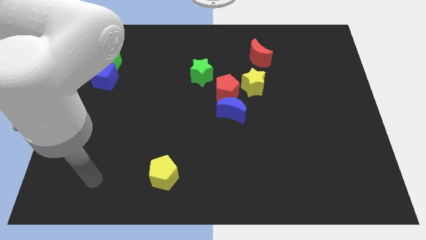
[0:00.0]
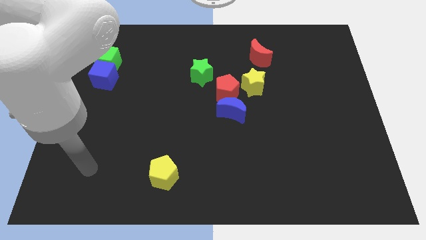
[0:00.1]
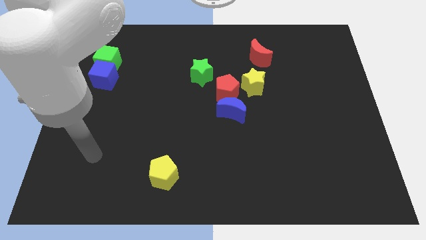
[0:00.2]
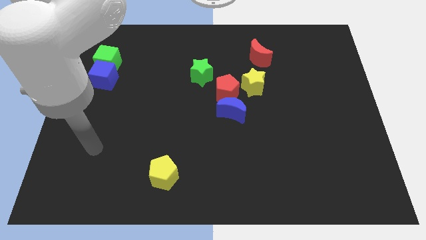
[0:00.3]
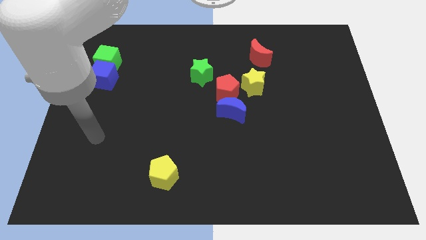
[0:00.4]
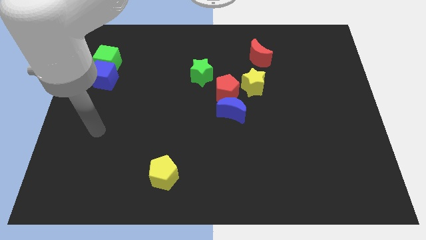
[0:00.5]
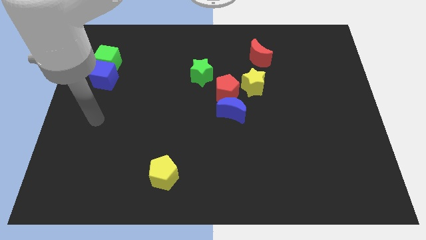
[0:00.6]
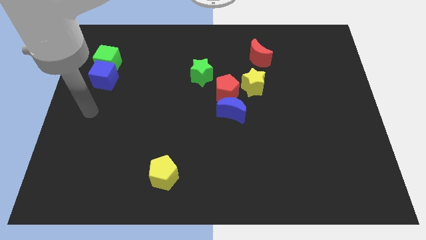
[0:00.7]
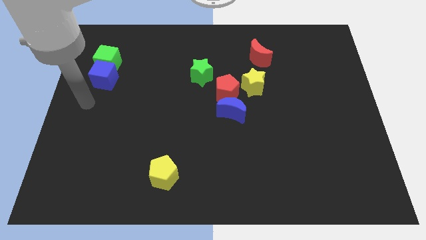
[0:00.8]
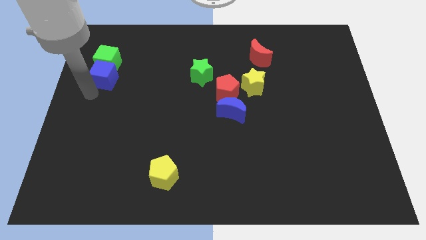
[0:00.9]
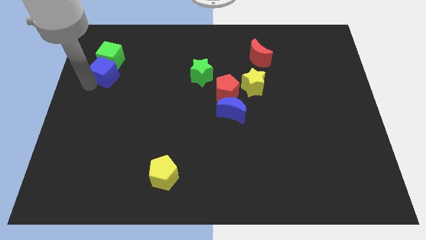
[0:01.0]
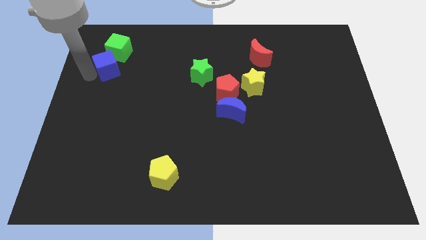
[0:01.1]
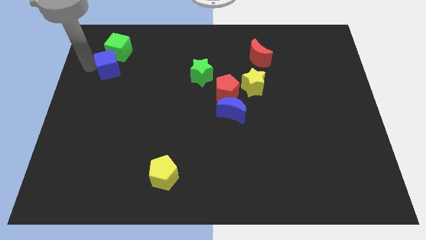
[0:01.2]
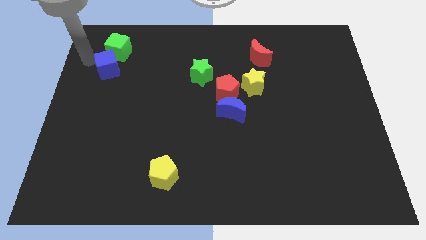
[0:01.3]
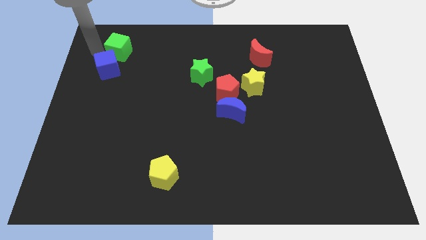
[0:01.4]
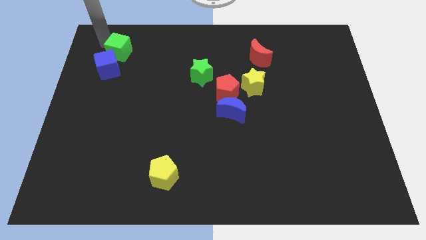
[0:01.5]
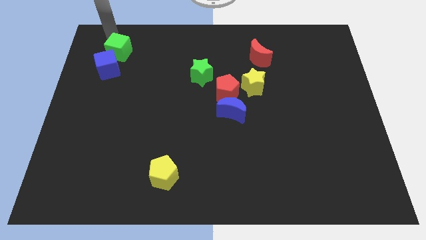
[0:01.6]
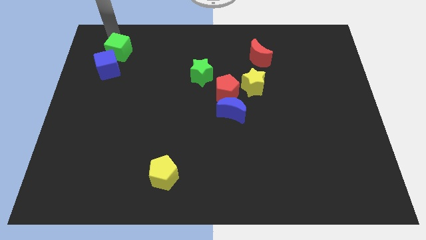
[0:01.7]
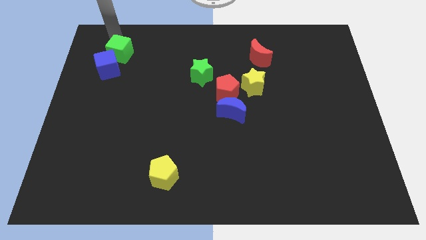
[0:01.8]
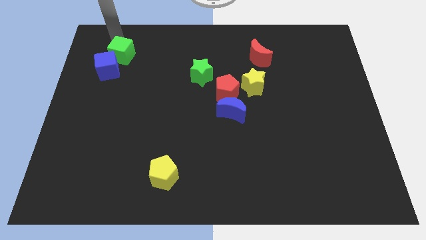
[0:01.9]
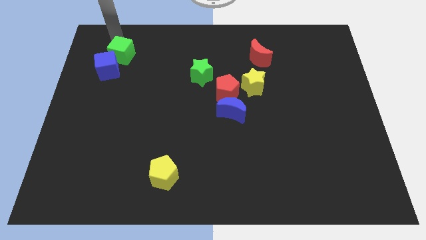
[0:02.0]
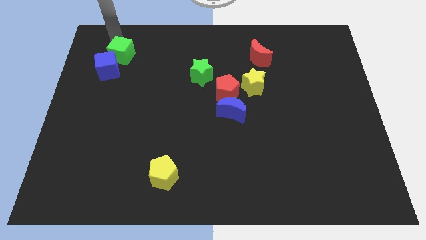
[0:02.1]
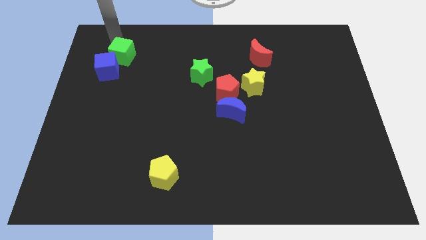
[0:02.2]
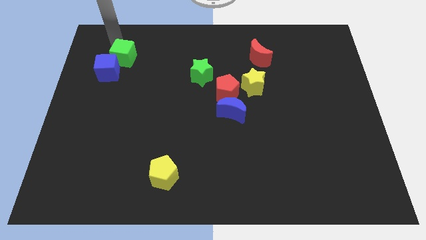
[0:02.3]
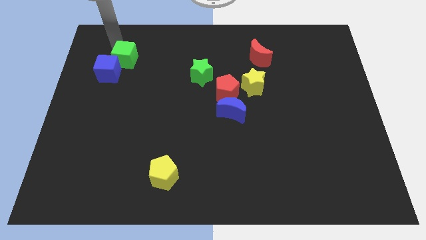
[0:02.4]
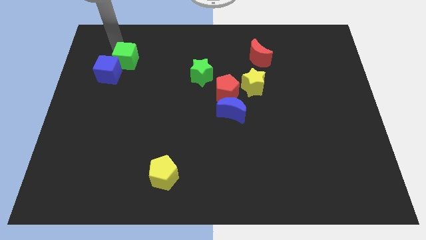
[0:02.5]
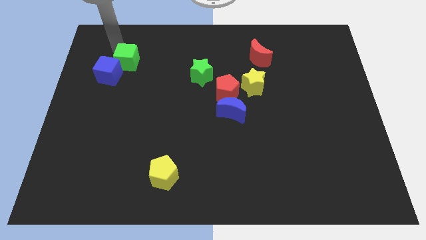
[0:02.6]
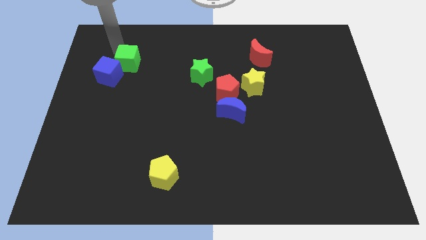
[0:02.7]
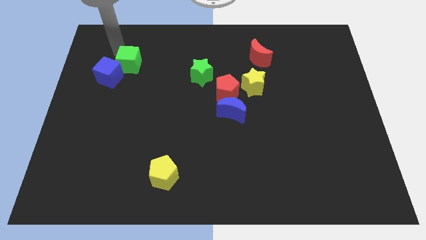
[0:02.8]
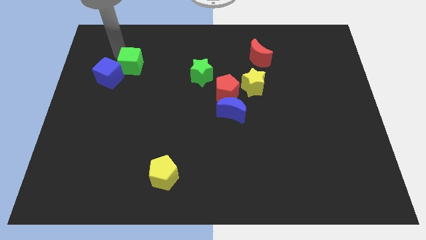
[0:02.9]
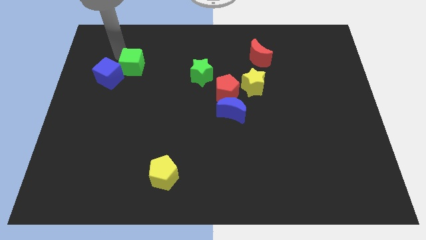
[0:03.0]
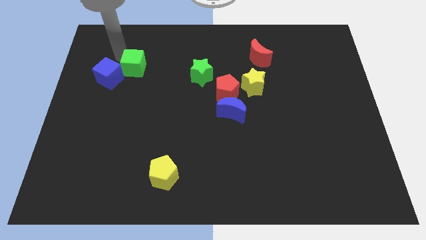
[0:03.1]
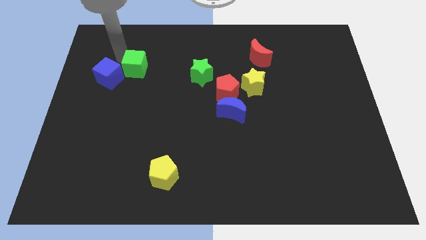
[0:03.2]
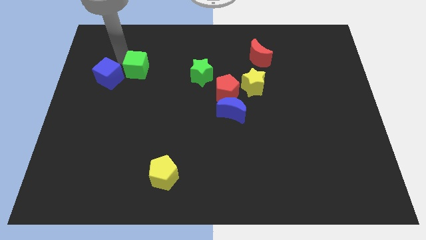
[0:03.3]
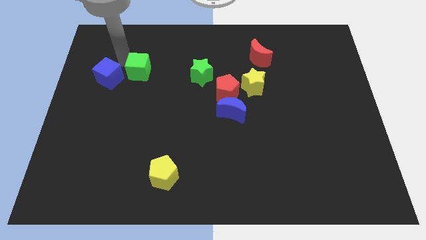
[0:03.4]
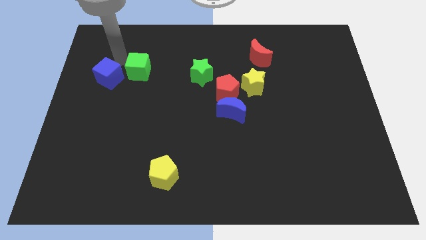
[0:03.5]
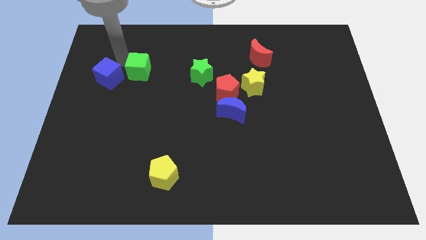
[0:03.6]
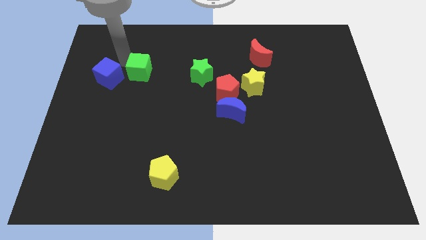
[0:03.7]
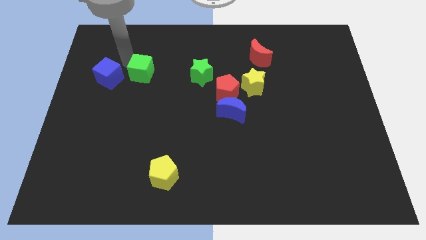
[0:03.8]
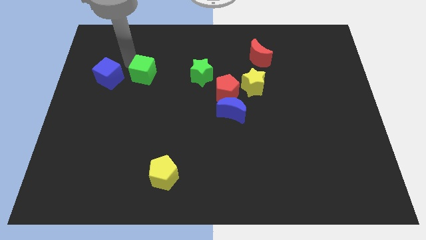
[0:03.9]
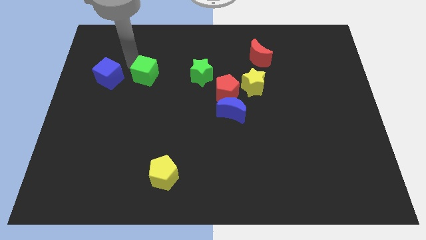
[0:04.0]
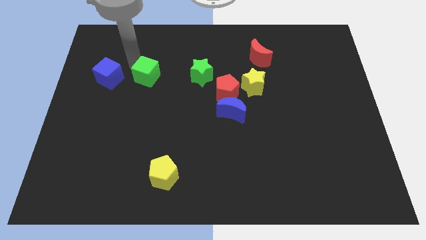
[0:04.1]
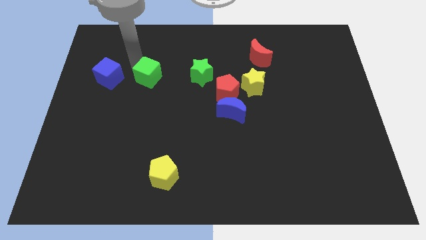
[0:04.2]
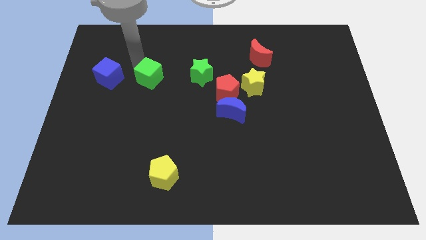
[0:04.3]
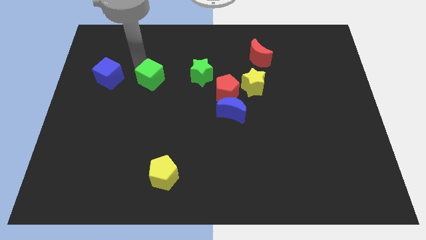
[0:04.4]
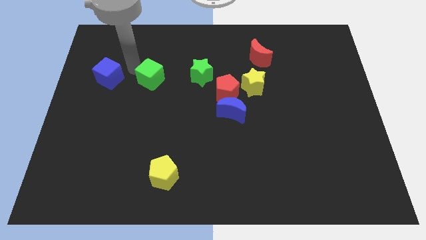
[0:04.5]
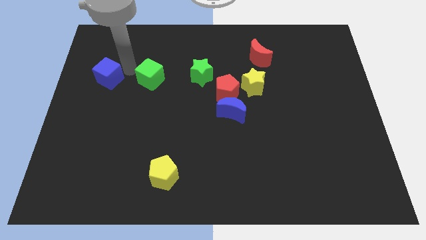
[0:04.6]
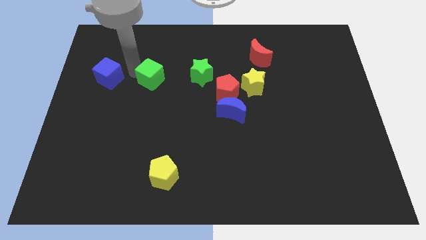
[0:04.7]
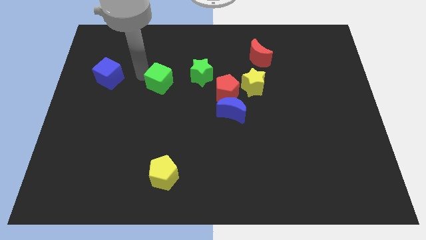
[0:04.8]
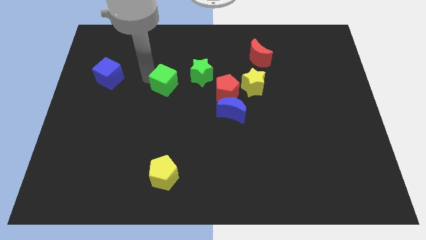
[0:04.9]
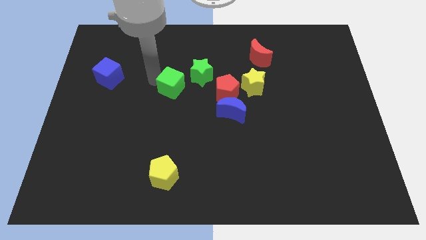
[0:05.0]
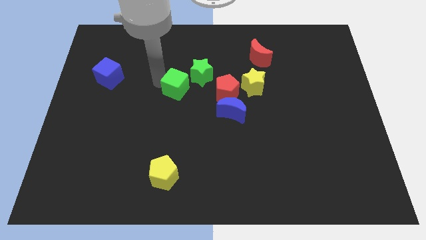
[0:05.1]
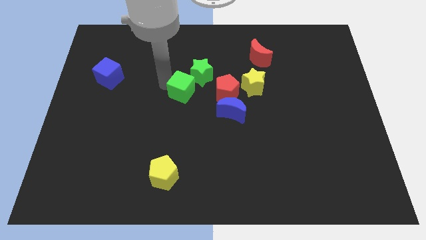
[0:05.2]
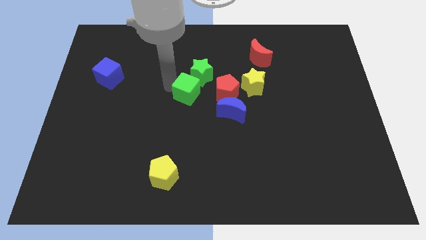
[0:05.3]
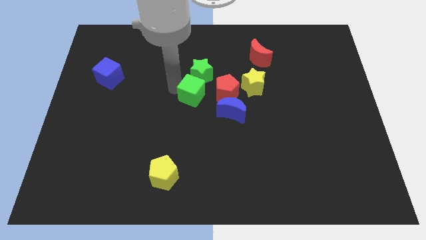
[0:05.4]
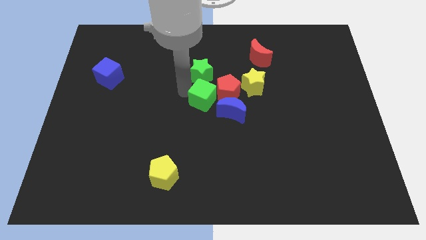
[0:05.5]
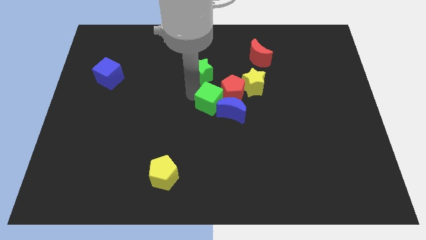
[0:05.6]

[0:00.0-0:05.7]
slide the green cube close to the blue moon

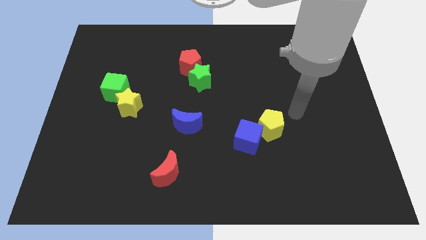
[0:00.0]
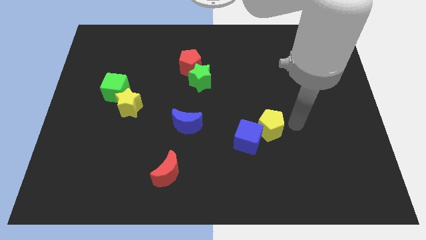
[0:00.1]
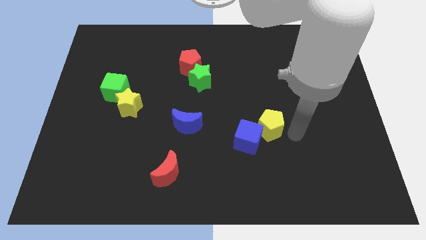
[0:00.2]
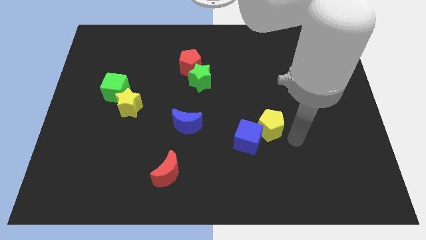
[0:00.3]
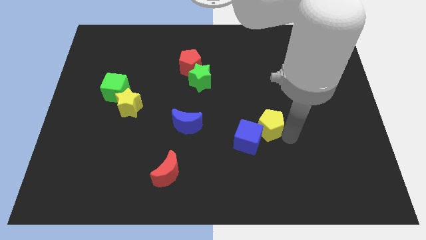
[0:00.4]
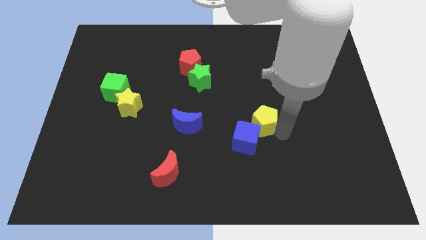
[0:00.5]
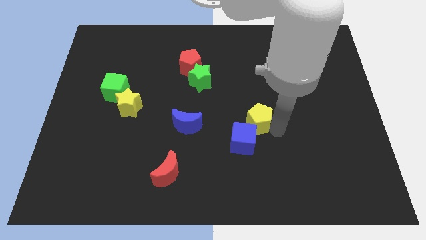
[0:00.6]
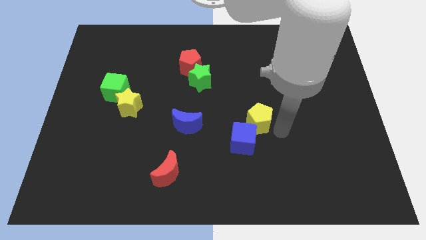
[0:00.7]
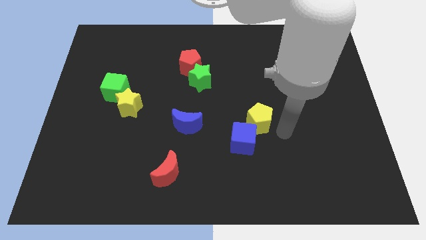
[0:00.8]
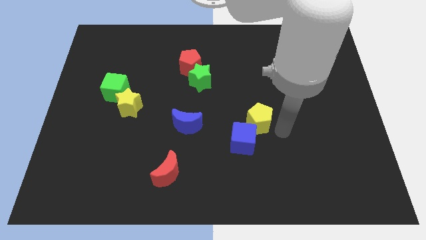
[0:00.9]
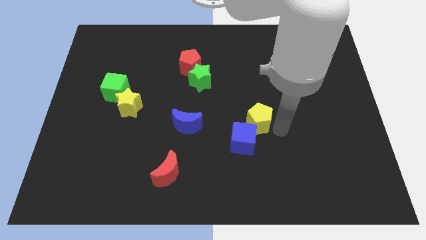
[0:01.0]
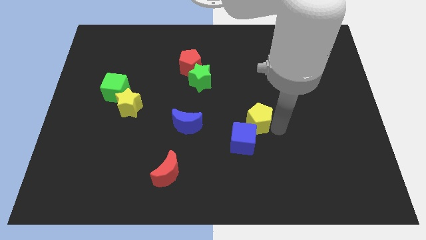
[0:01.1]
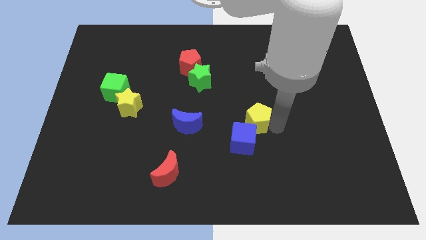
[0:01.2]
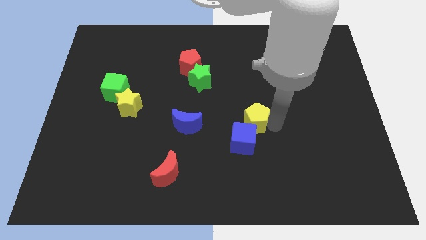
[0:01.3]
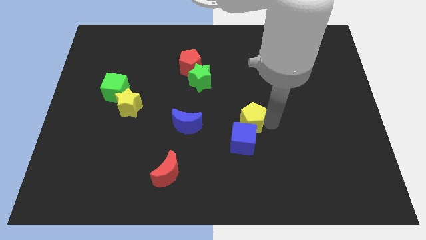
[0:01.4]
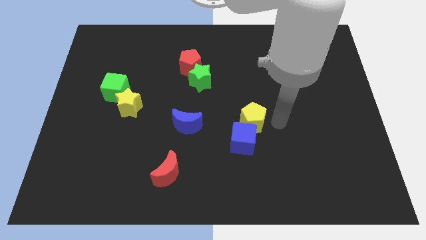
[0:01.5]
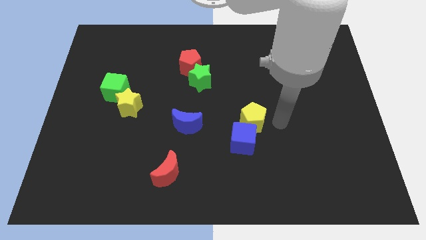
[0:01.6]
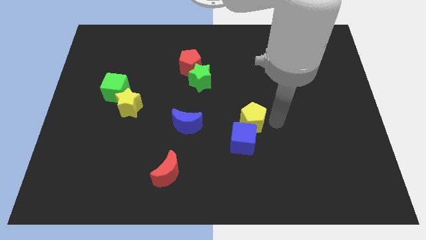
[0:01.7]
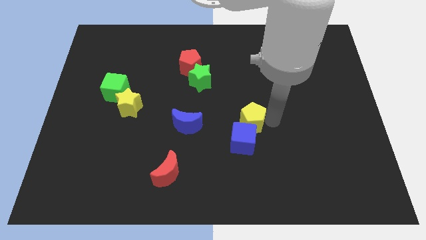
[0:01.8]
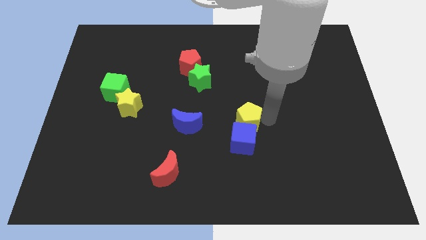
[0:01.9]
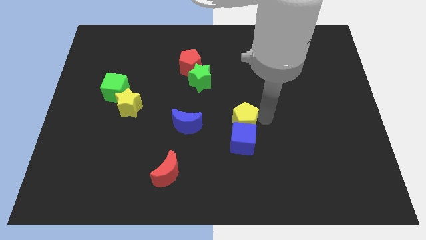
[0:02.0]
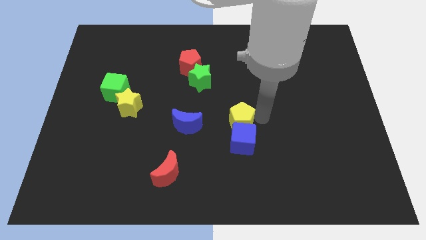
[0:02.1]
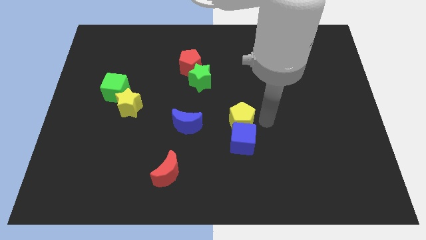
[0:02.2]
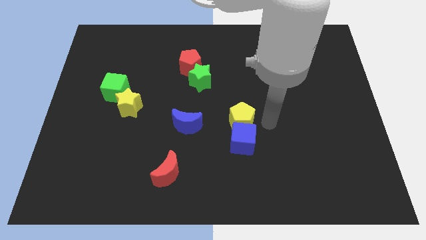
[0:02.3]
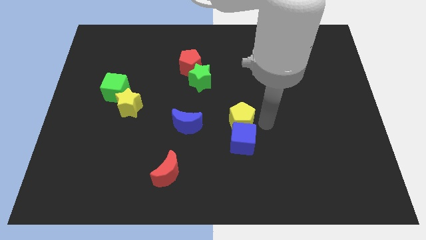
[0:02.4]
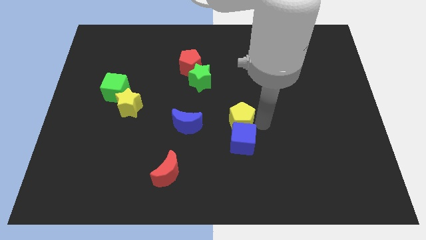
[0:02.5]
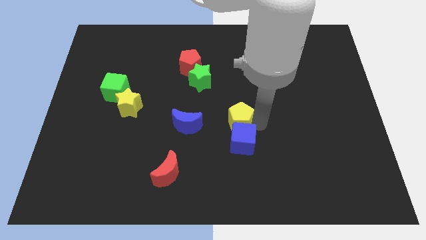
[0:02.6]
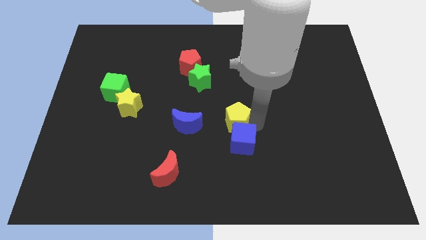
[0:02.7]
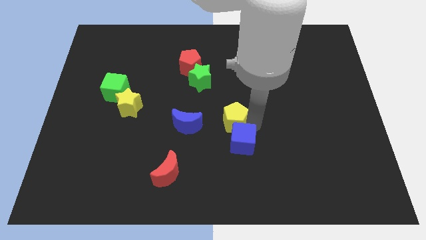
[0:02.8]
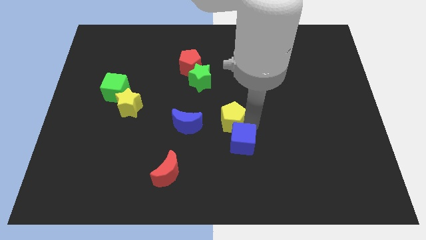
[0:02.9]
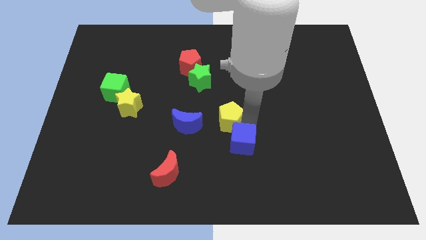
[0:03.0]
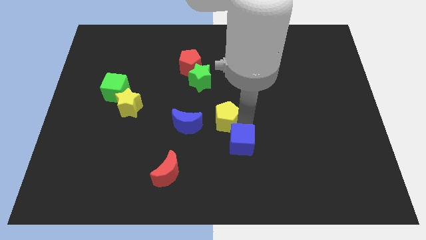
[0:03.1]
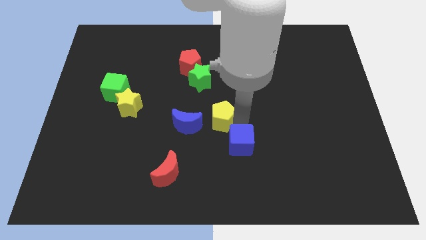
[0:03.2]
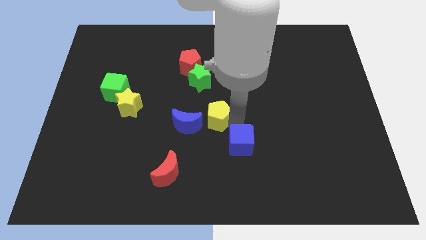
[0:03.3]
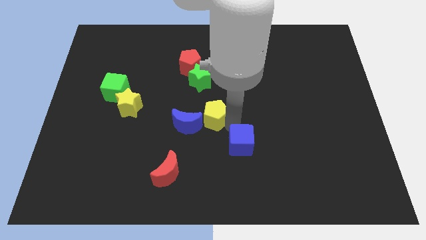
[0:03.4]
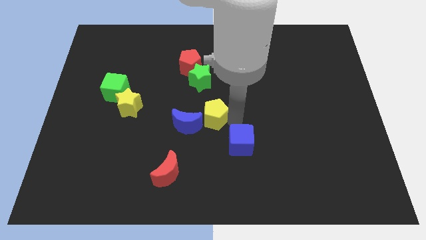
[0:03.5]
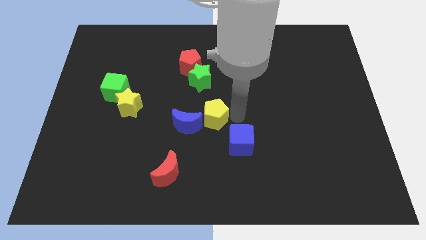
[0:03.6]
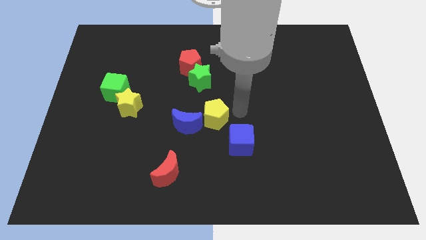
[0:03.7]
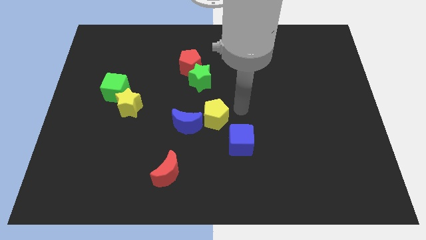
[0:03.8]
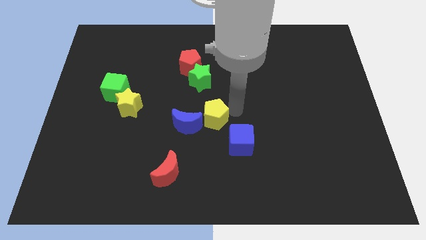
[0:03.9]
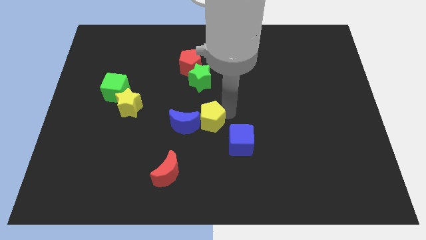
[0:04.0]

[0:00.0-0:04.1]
move the yellow pentagon towards the blue moon
